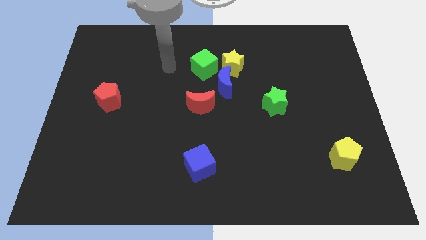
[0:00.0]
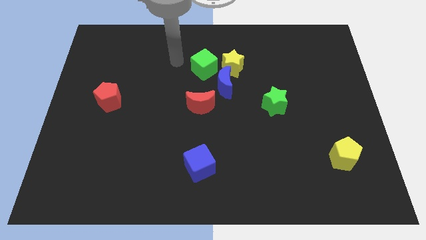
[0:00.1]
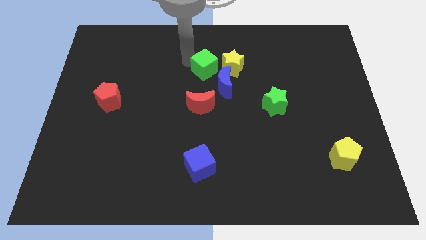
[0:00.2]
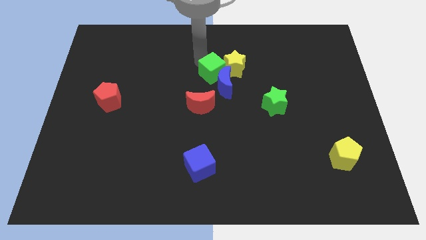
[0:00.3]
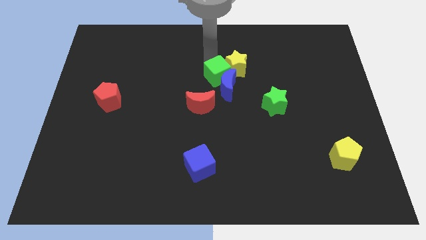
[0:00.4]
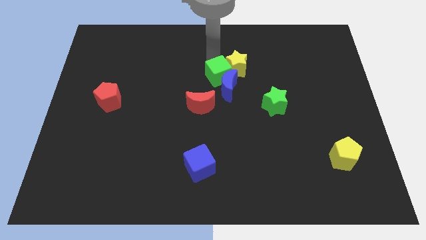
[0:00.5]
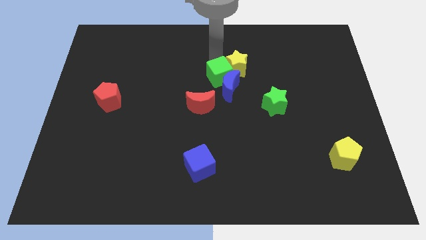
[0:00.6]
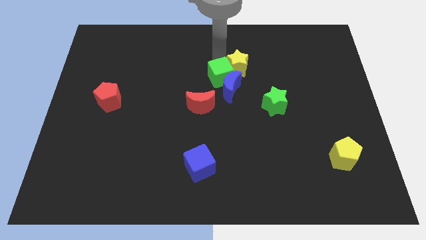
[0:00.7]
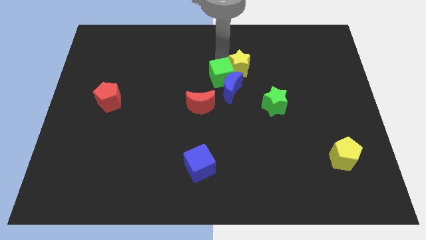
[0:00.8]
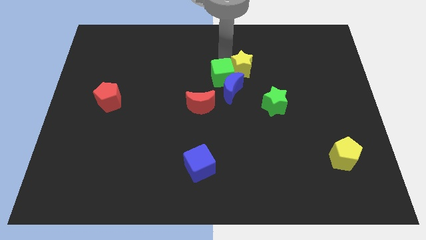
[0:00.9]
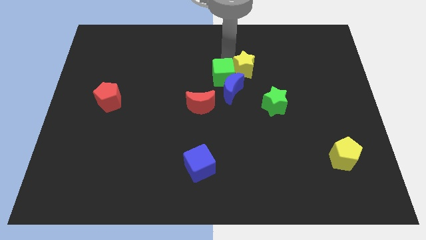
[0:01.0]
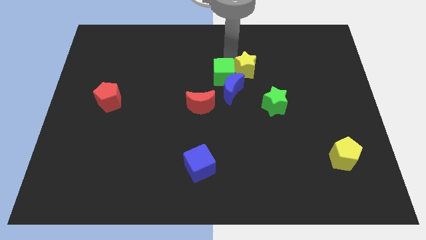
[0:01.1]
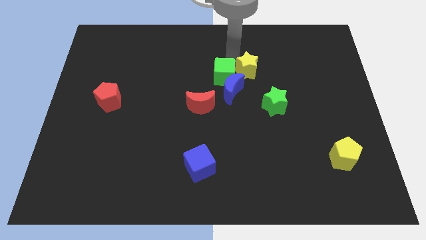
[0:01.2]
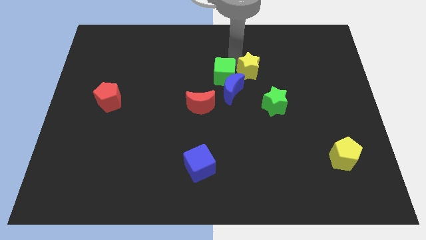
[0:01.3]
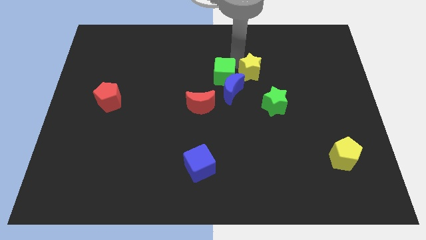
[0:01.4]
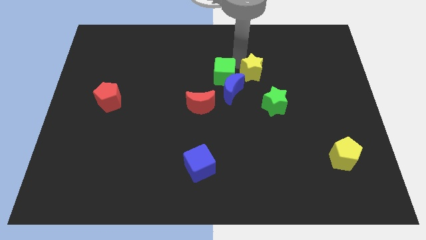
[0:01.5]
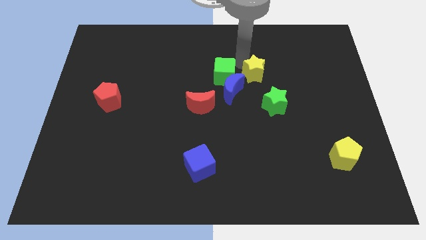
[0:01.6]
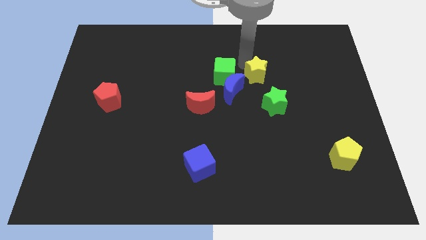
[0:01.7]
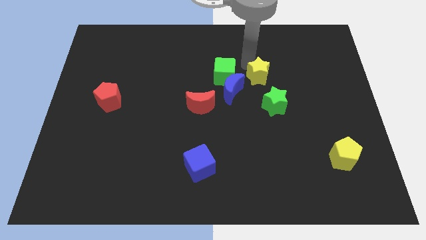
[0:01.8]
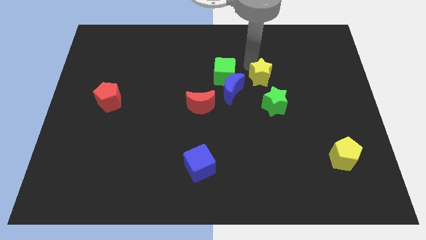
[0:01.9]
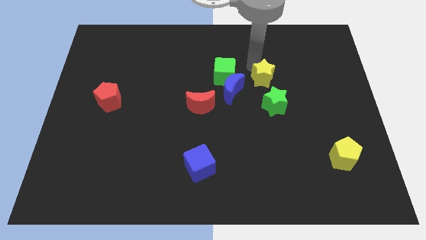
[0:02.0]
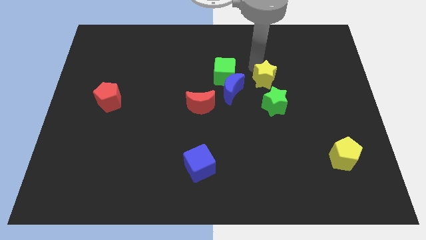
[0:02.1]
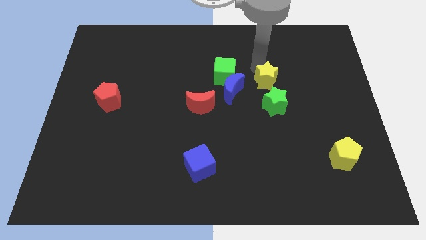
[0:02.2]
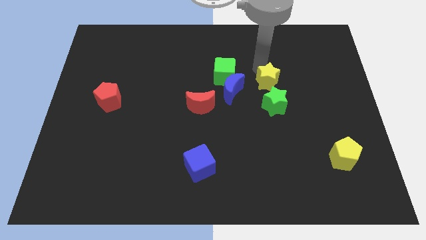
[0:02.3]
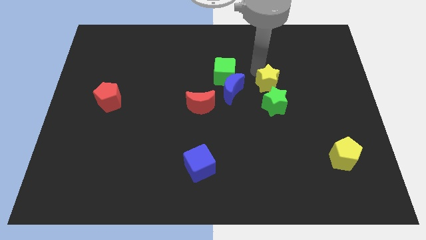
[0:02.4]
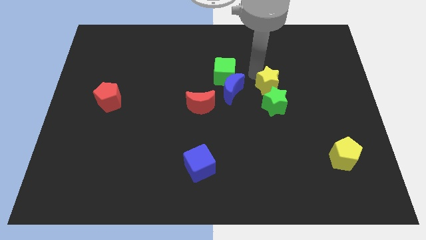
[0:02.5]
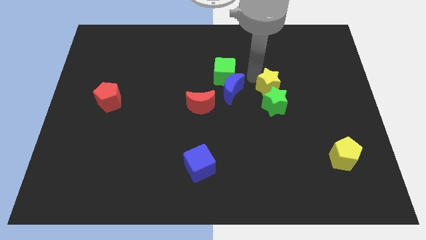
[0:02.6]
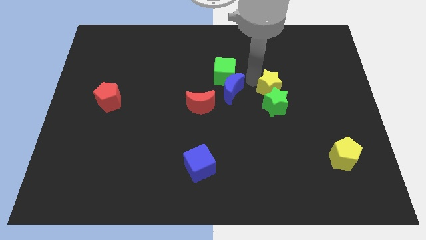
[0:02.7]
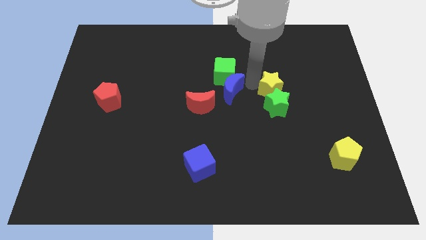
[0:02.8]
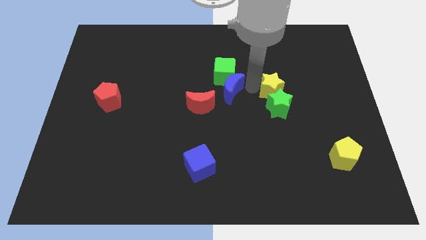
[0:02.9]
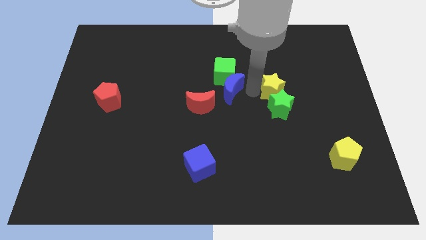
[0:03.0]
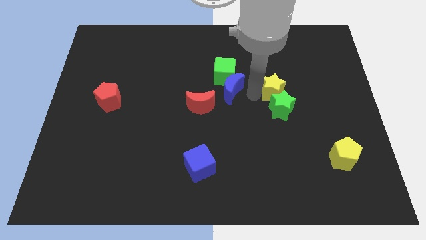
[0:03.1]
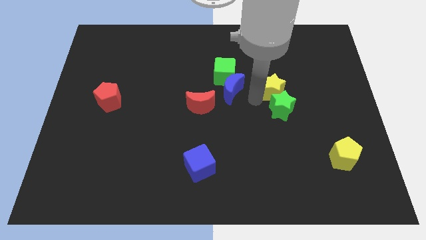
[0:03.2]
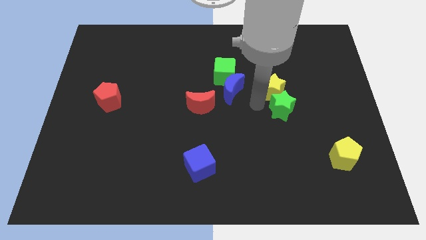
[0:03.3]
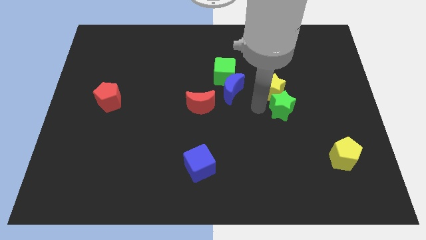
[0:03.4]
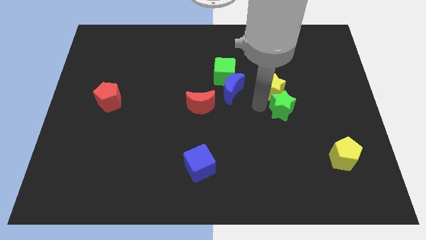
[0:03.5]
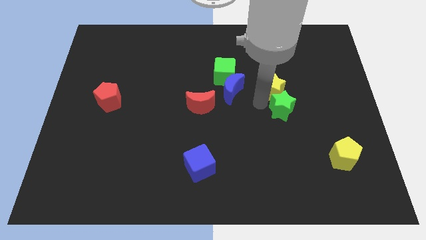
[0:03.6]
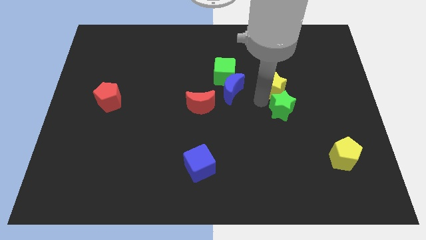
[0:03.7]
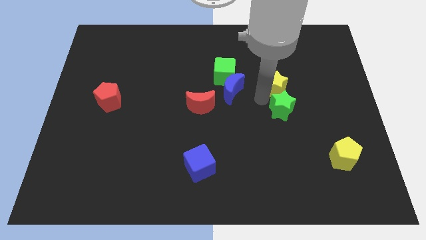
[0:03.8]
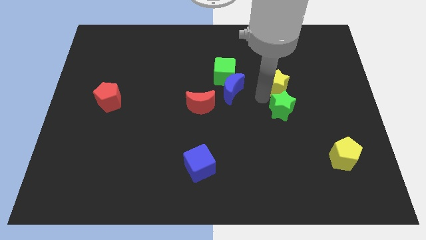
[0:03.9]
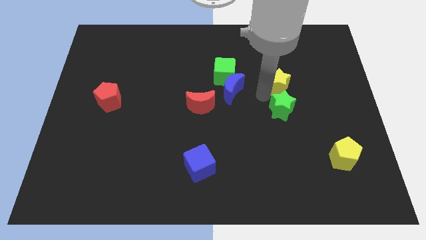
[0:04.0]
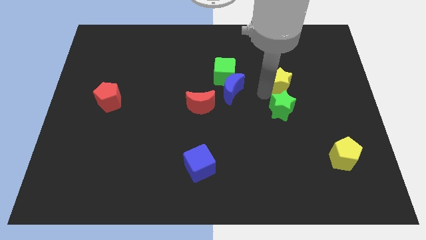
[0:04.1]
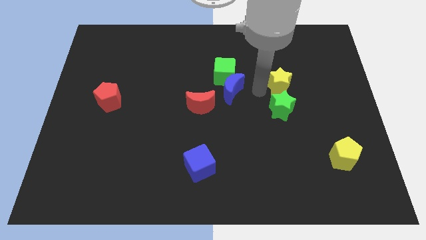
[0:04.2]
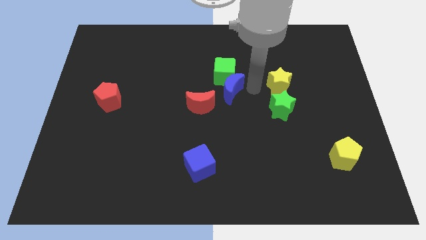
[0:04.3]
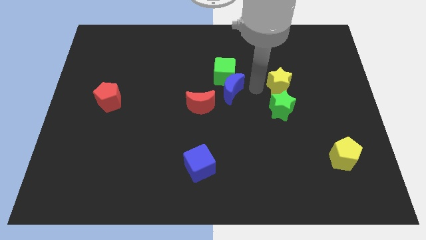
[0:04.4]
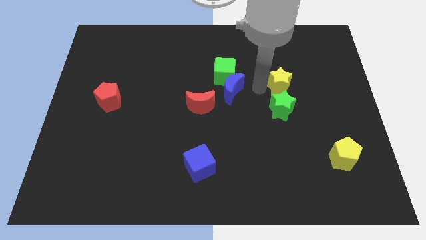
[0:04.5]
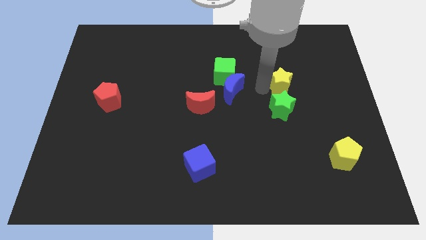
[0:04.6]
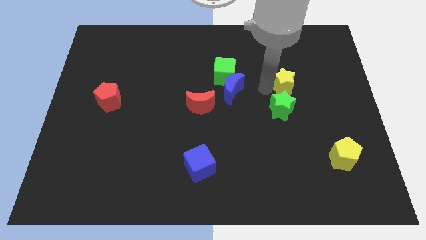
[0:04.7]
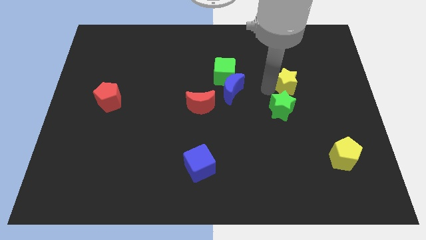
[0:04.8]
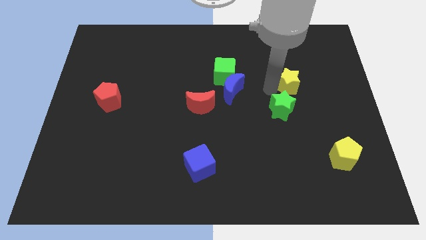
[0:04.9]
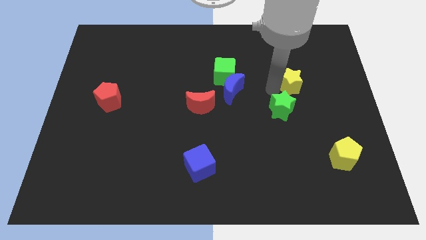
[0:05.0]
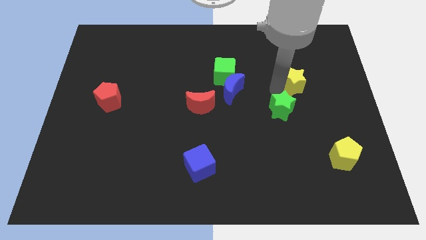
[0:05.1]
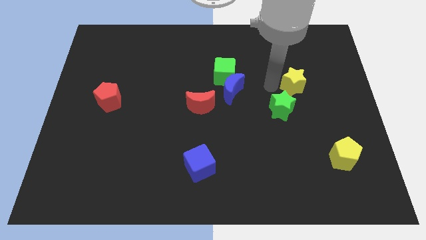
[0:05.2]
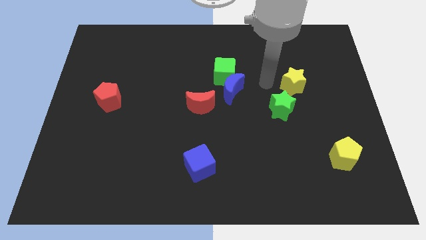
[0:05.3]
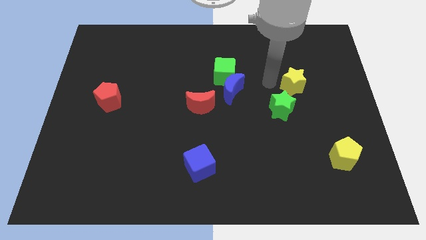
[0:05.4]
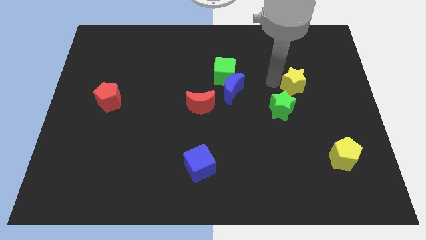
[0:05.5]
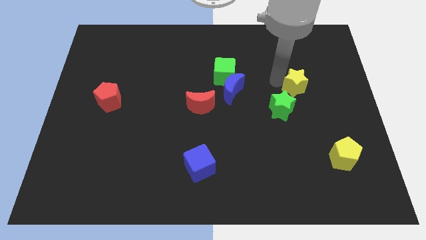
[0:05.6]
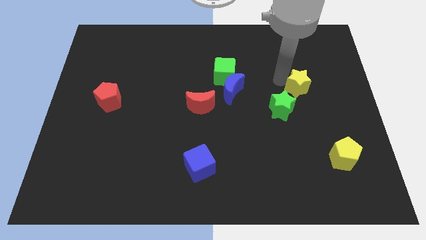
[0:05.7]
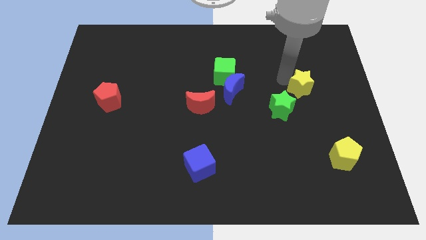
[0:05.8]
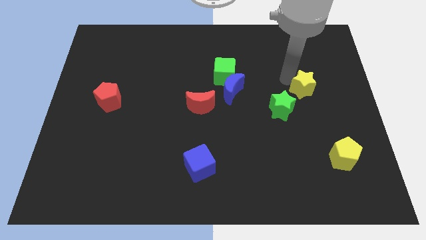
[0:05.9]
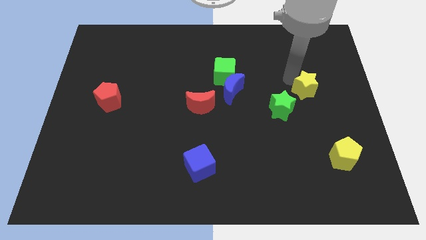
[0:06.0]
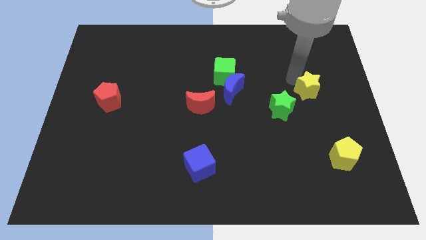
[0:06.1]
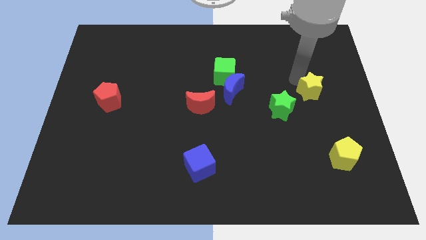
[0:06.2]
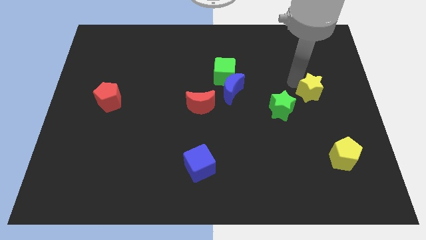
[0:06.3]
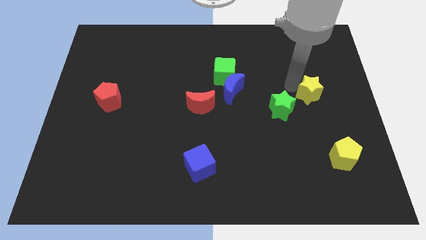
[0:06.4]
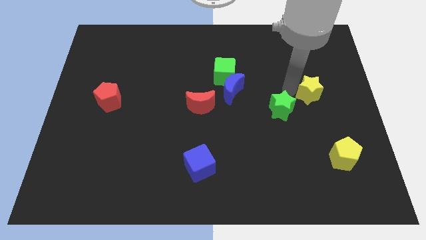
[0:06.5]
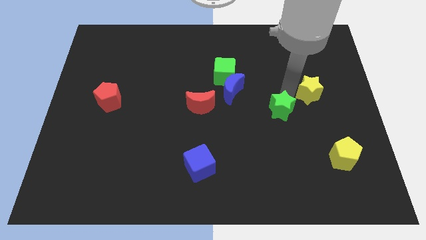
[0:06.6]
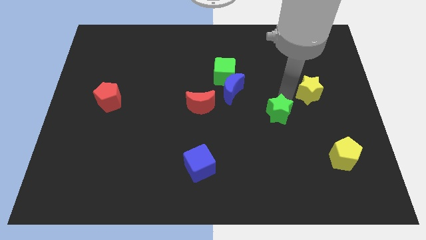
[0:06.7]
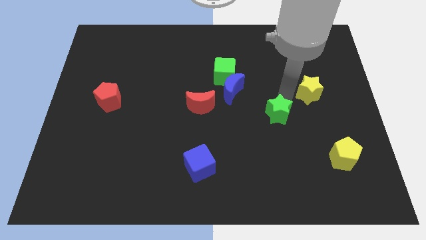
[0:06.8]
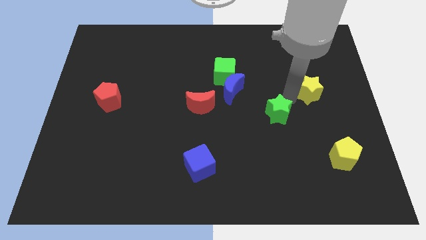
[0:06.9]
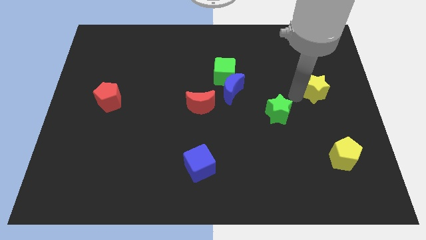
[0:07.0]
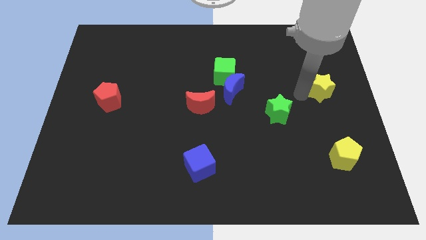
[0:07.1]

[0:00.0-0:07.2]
move the yellow star to the right side

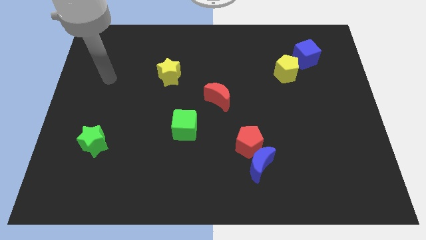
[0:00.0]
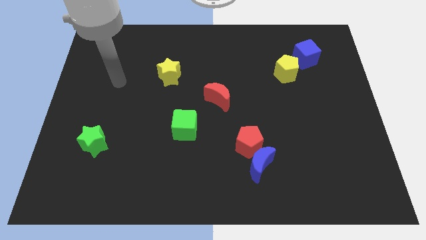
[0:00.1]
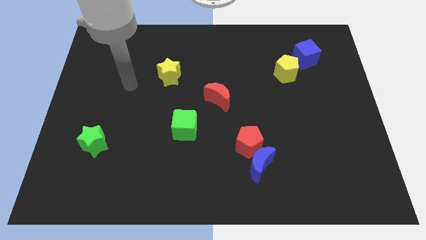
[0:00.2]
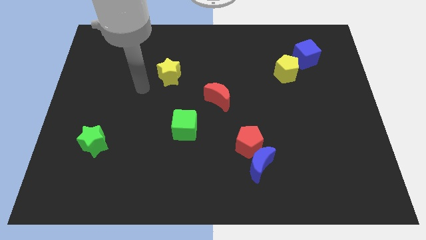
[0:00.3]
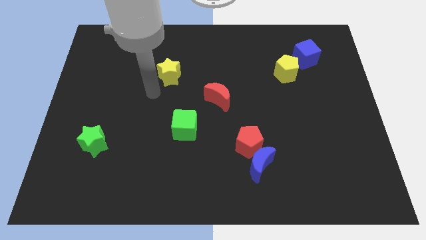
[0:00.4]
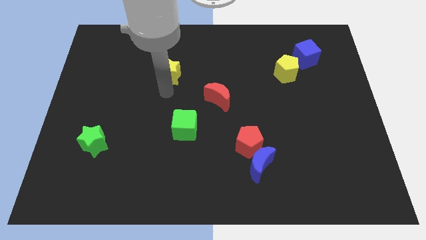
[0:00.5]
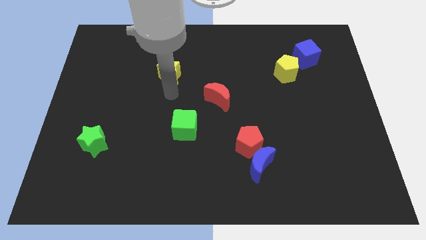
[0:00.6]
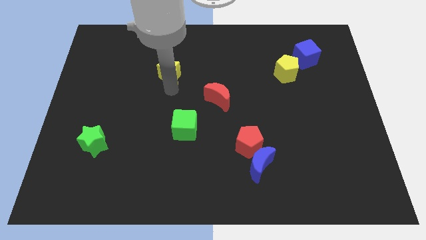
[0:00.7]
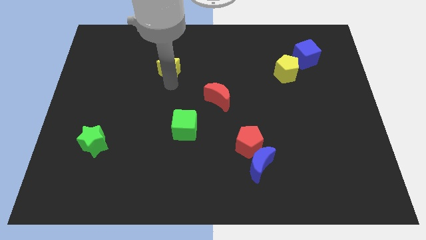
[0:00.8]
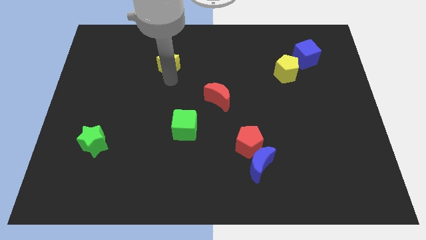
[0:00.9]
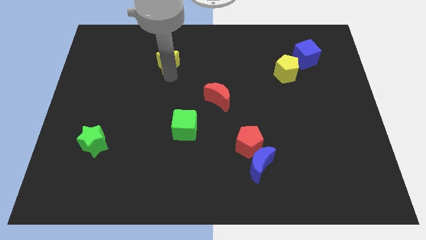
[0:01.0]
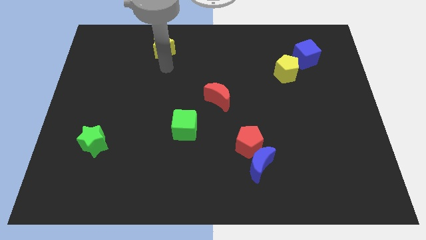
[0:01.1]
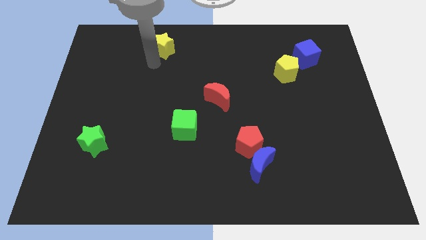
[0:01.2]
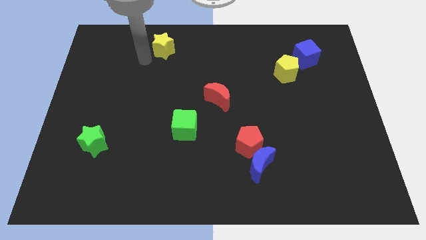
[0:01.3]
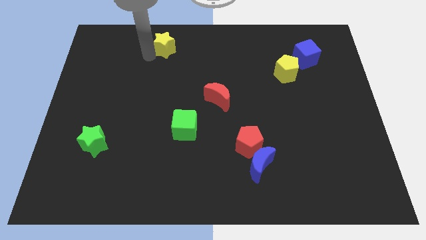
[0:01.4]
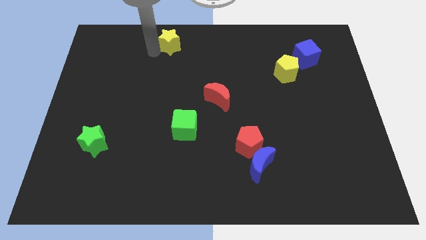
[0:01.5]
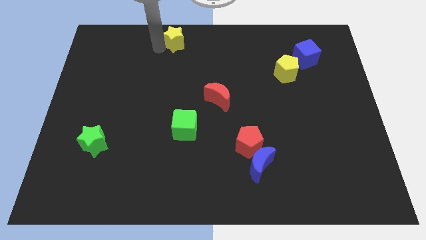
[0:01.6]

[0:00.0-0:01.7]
push the yellow star to the towards your base
